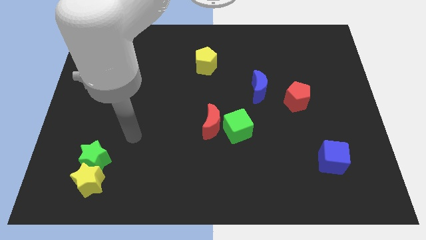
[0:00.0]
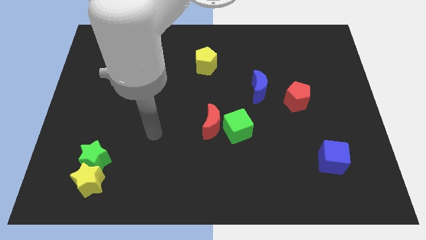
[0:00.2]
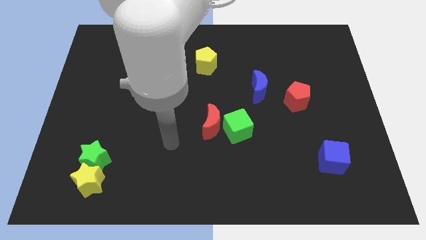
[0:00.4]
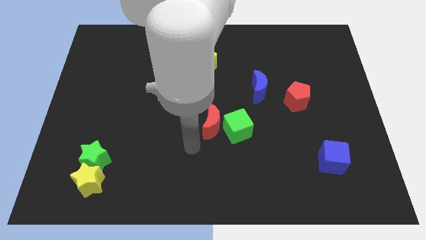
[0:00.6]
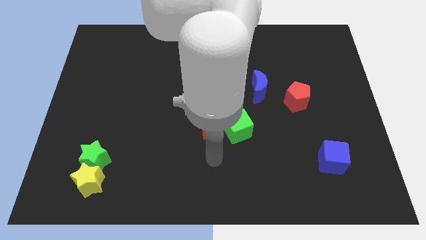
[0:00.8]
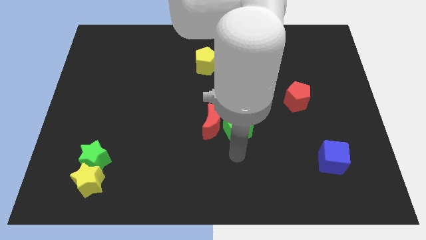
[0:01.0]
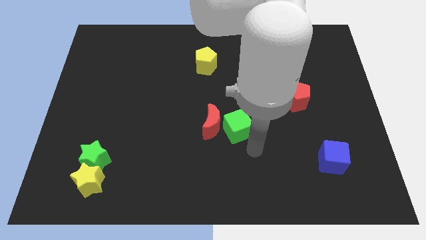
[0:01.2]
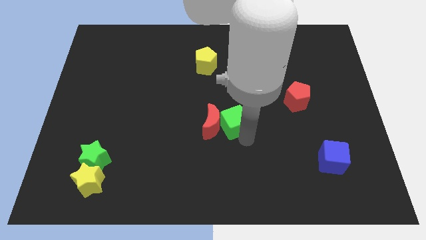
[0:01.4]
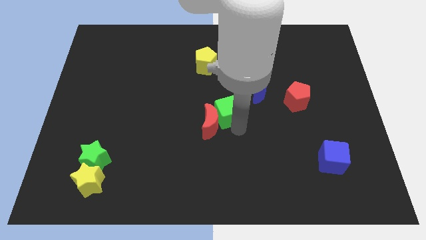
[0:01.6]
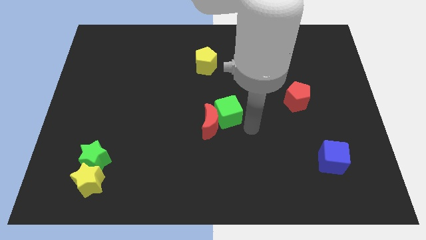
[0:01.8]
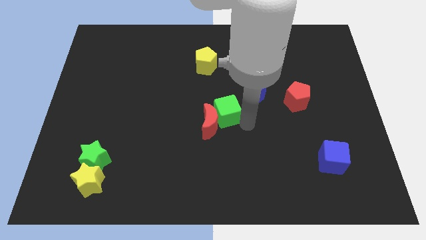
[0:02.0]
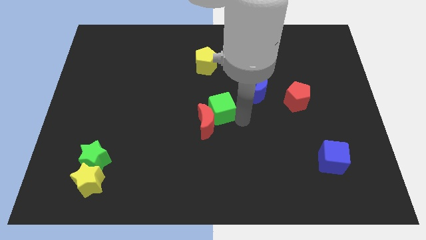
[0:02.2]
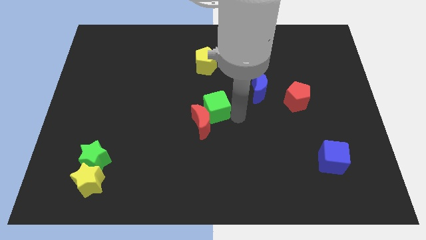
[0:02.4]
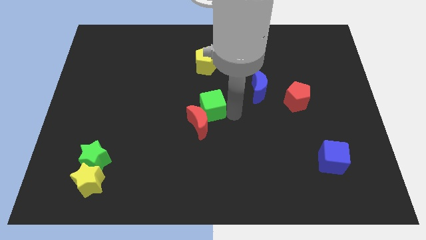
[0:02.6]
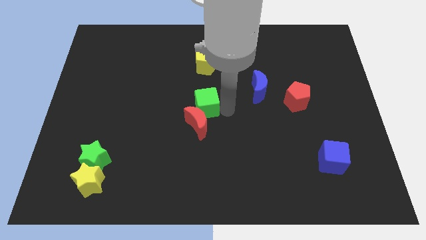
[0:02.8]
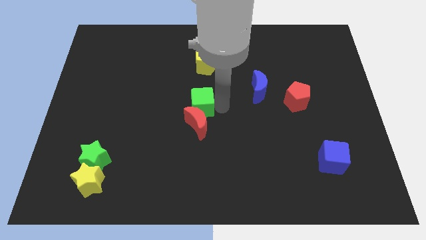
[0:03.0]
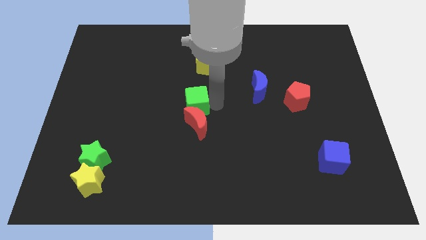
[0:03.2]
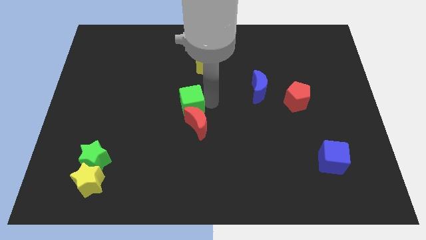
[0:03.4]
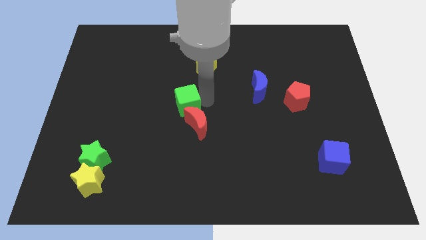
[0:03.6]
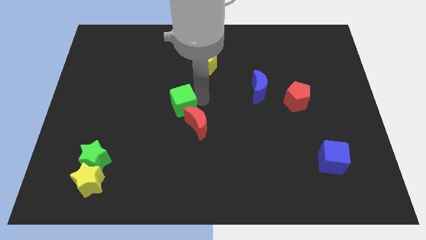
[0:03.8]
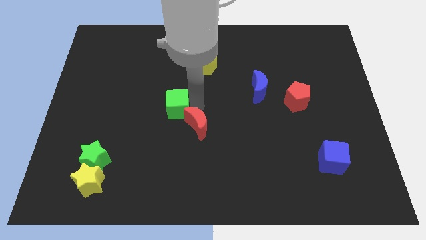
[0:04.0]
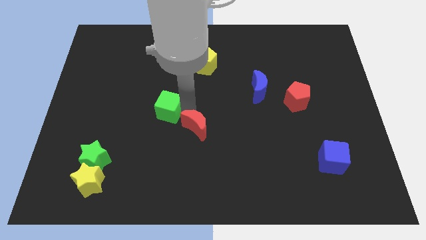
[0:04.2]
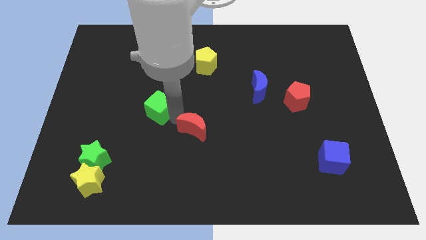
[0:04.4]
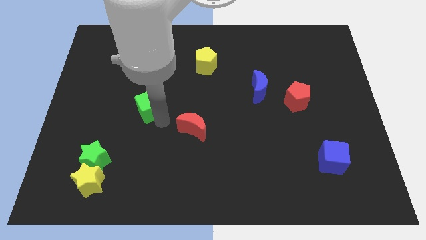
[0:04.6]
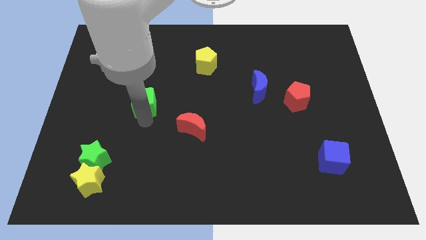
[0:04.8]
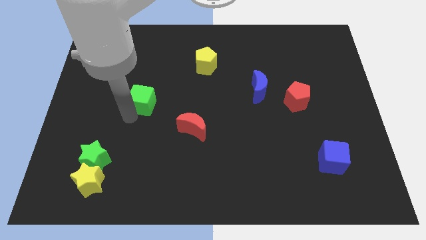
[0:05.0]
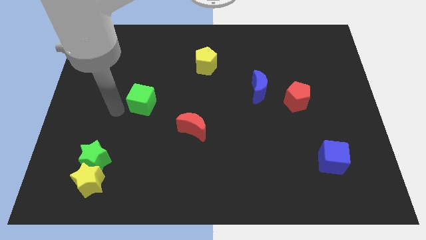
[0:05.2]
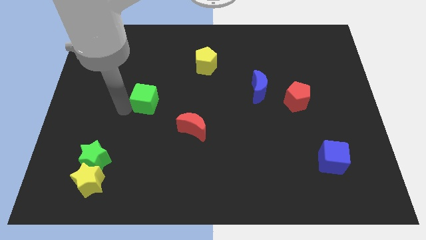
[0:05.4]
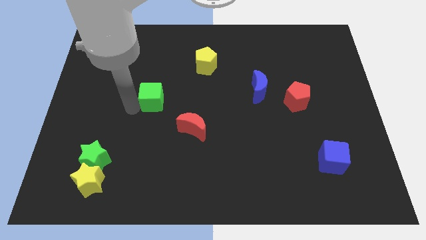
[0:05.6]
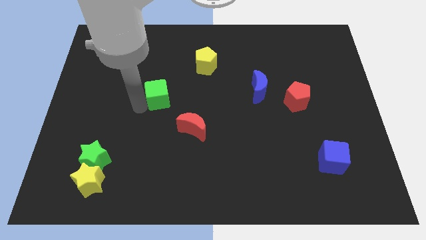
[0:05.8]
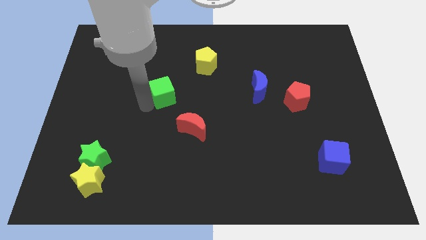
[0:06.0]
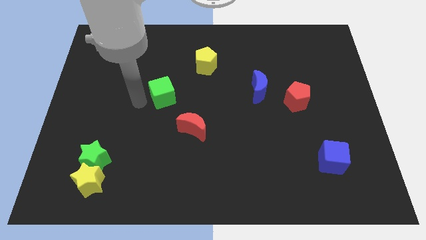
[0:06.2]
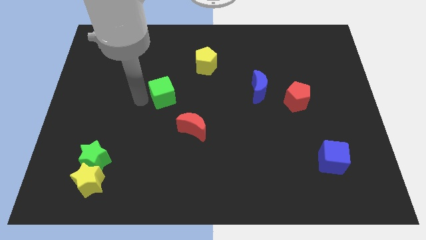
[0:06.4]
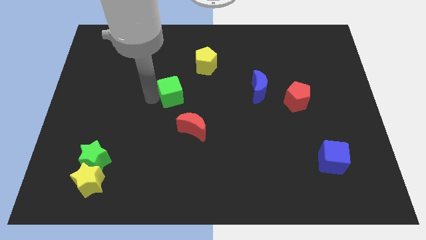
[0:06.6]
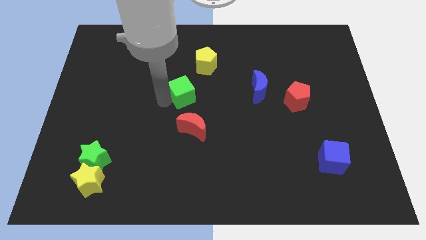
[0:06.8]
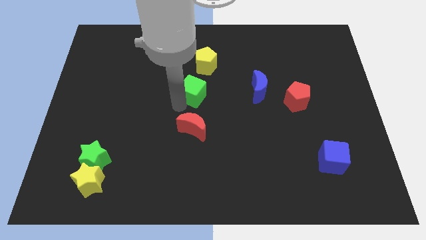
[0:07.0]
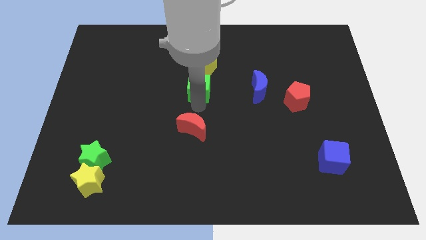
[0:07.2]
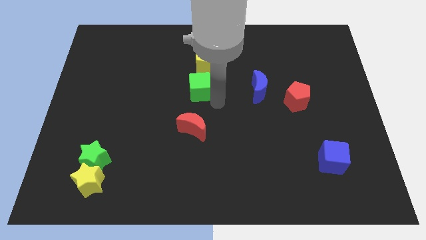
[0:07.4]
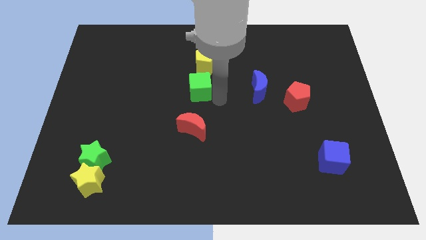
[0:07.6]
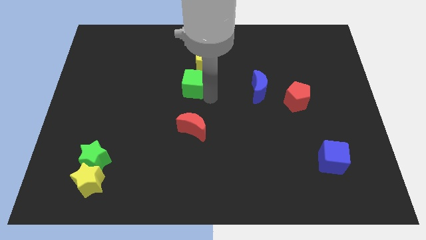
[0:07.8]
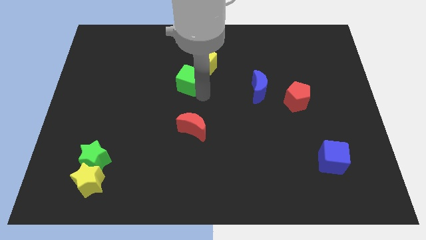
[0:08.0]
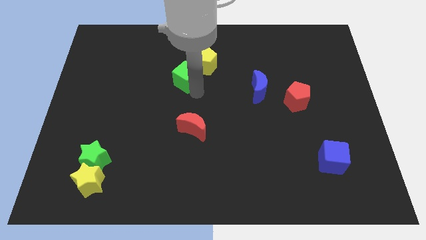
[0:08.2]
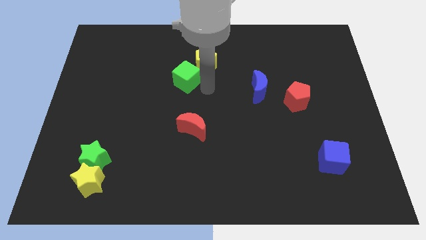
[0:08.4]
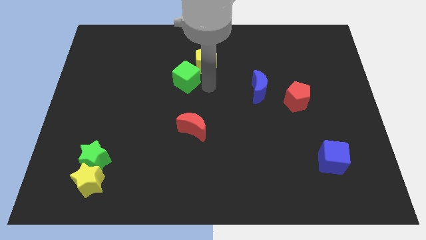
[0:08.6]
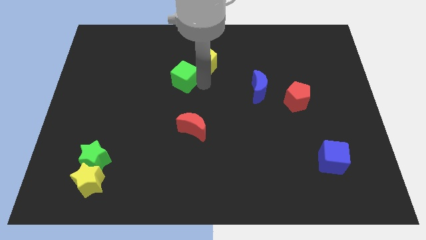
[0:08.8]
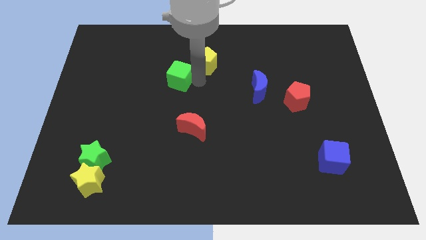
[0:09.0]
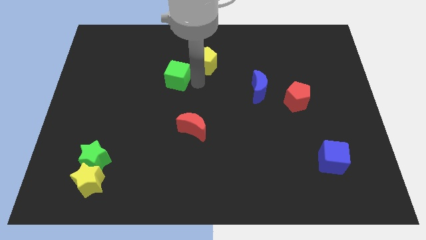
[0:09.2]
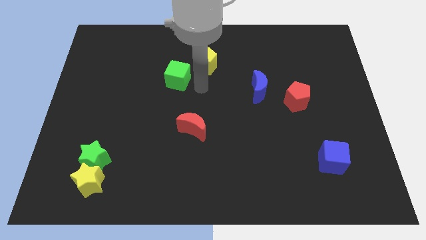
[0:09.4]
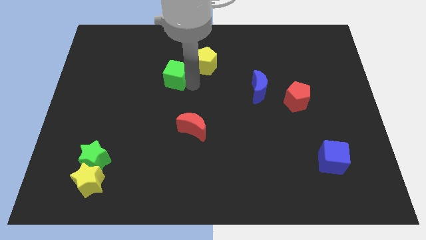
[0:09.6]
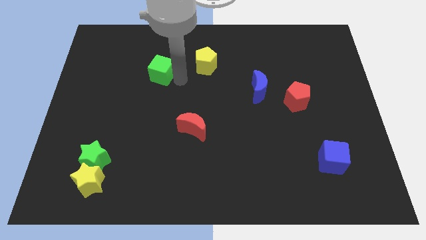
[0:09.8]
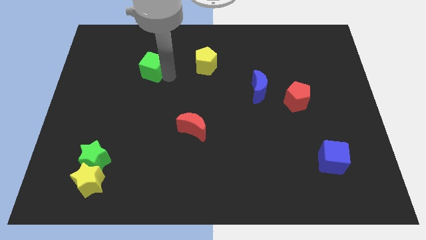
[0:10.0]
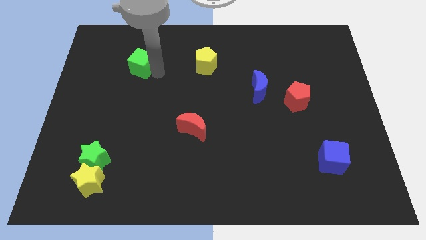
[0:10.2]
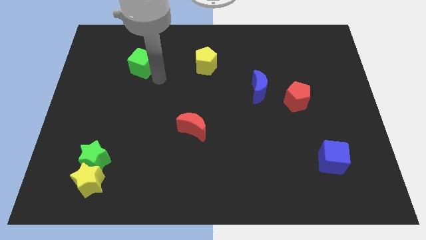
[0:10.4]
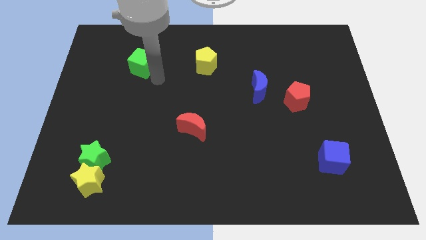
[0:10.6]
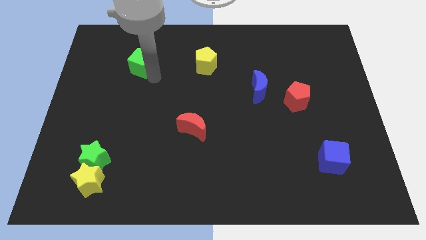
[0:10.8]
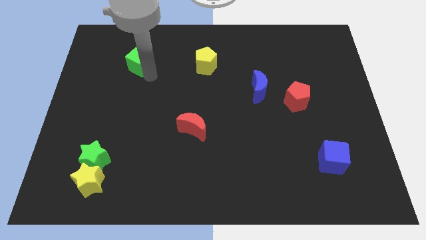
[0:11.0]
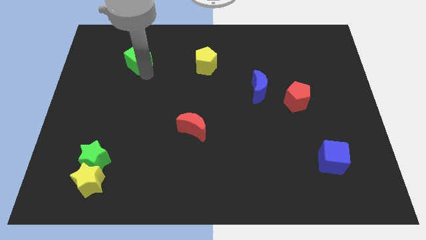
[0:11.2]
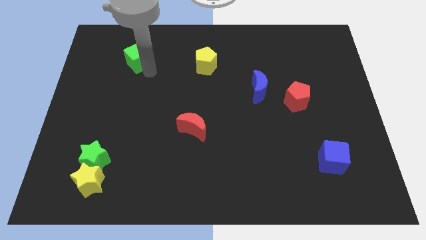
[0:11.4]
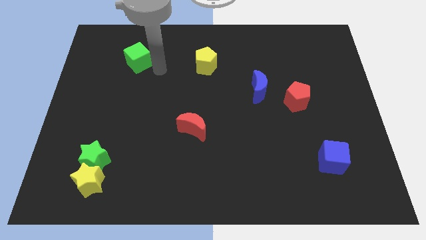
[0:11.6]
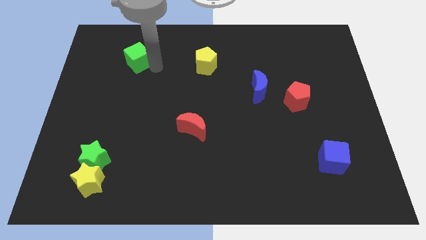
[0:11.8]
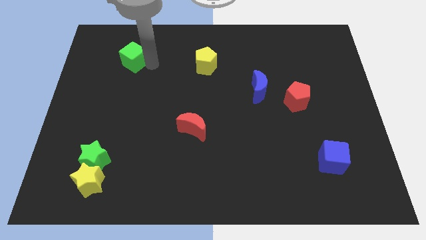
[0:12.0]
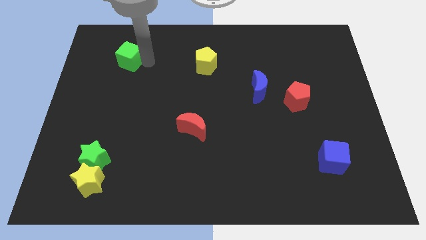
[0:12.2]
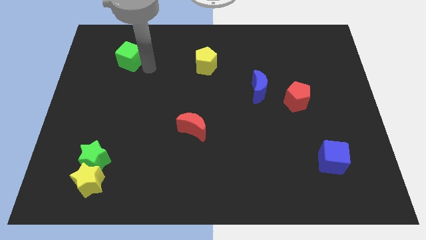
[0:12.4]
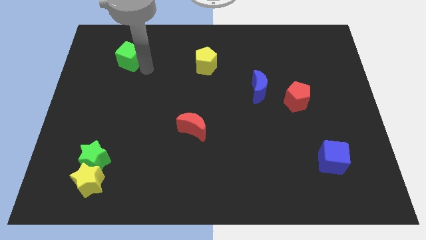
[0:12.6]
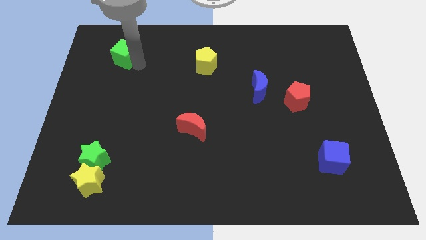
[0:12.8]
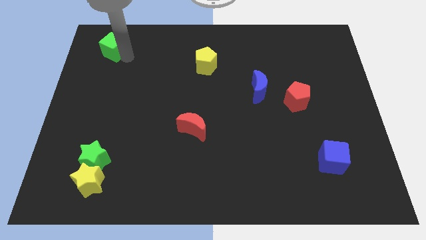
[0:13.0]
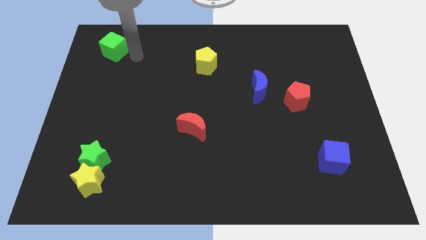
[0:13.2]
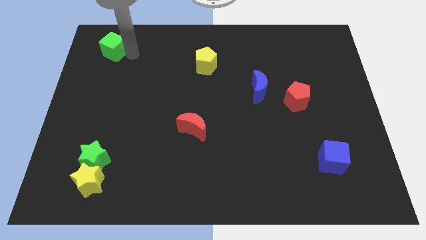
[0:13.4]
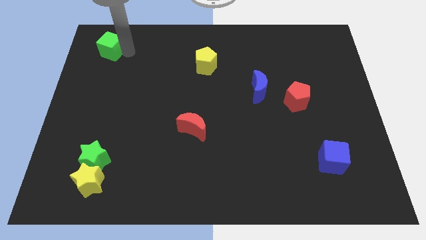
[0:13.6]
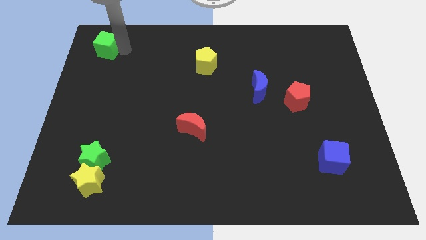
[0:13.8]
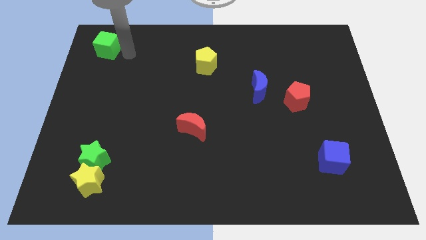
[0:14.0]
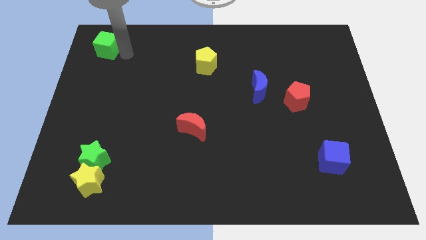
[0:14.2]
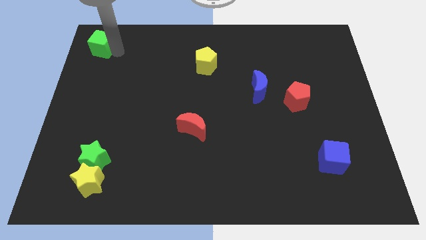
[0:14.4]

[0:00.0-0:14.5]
slide the green cube to the top left of the board
